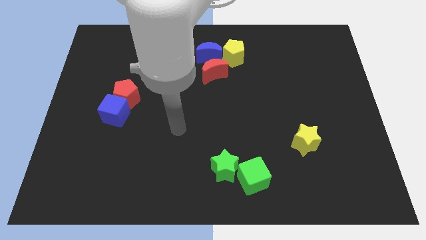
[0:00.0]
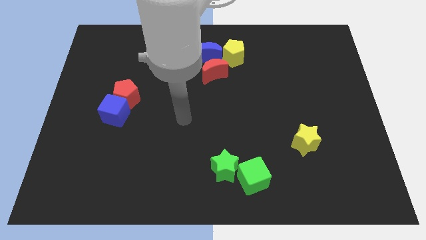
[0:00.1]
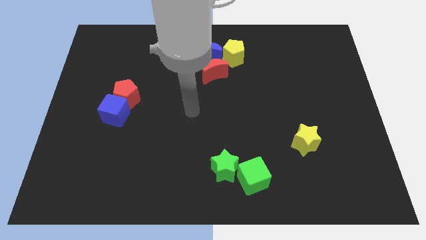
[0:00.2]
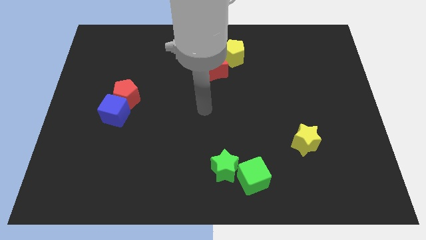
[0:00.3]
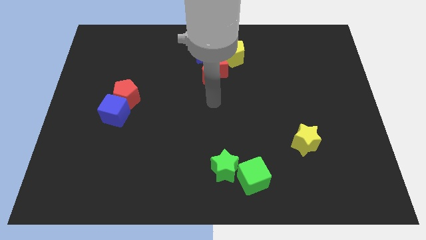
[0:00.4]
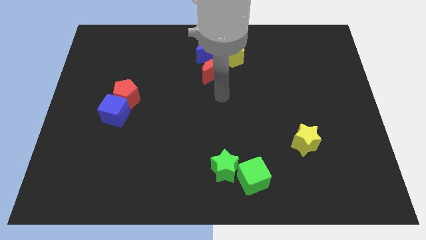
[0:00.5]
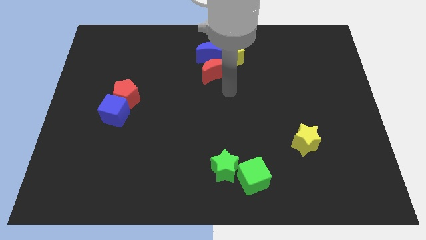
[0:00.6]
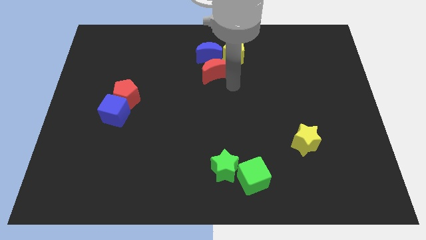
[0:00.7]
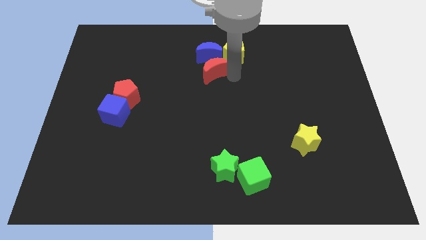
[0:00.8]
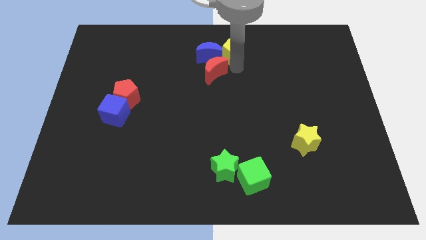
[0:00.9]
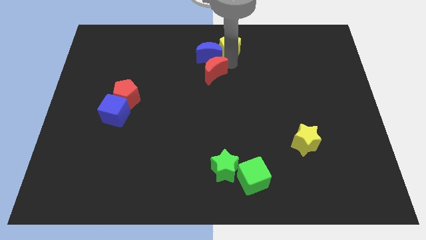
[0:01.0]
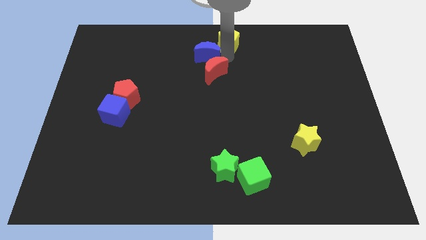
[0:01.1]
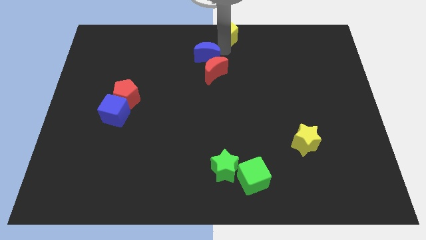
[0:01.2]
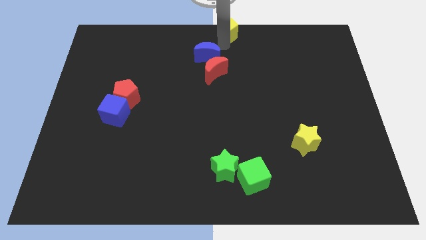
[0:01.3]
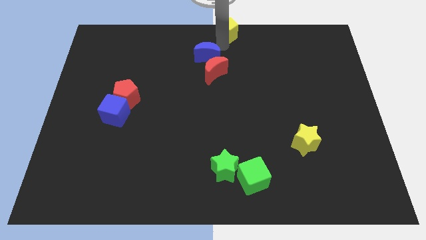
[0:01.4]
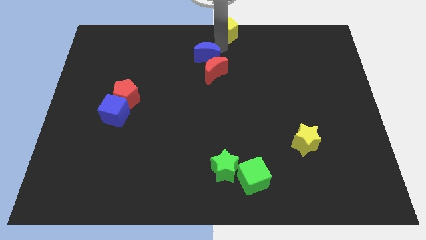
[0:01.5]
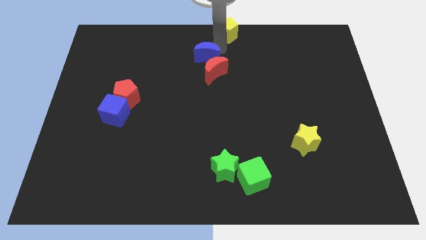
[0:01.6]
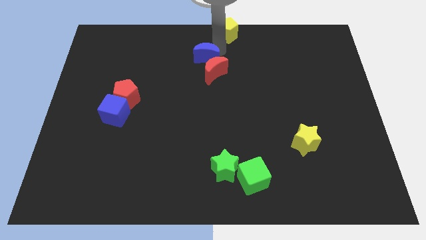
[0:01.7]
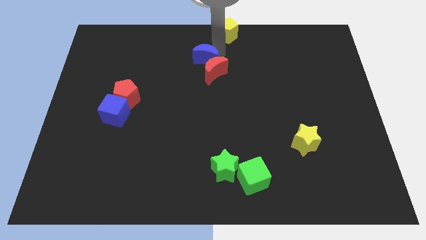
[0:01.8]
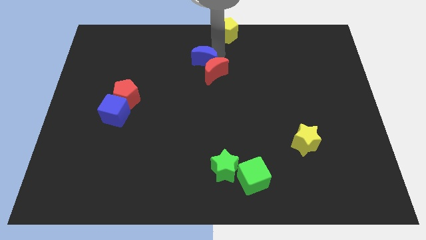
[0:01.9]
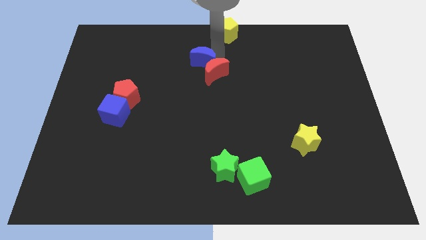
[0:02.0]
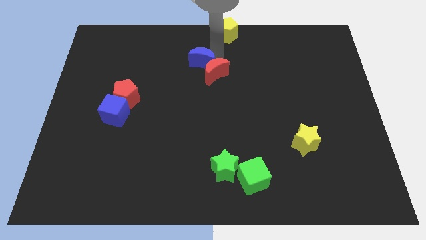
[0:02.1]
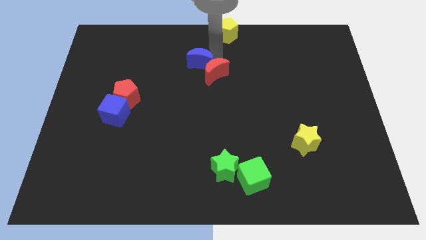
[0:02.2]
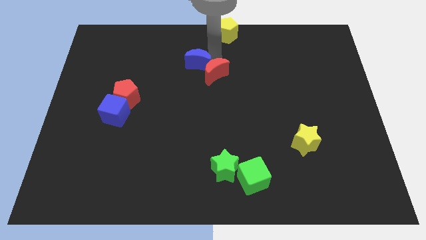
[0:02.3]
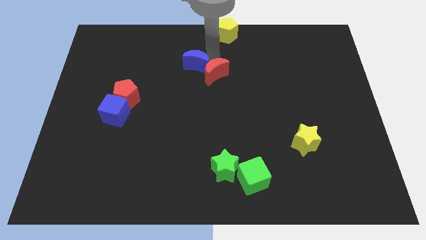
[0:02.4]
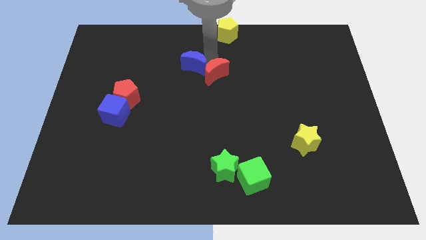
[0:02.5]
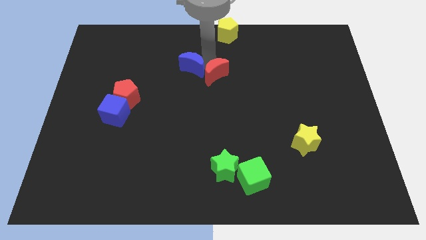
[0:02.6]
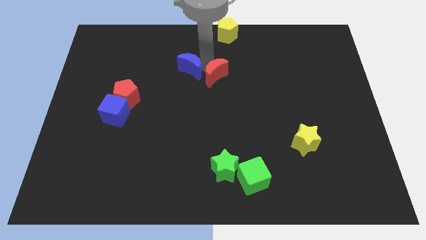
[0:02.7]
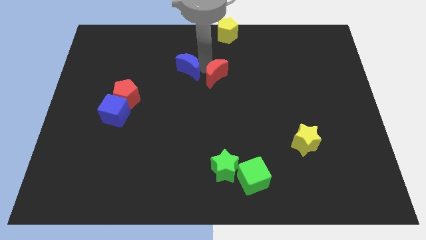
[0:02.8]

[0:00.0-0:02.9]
slightly push the blue moon downwards and to the left

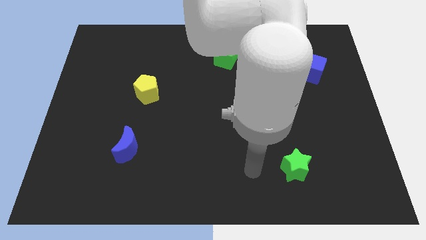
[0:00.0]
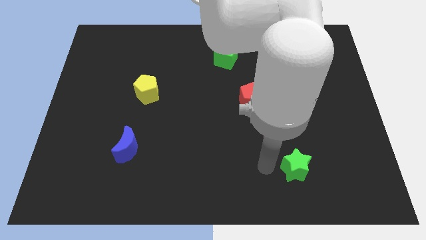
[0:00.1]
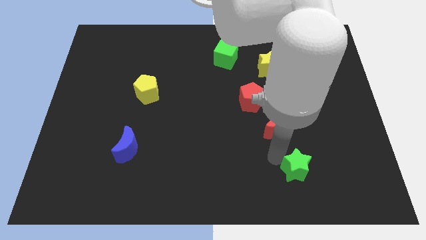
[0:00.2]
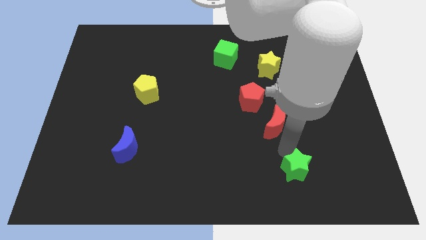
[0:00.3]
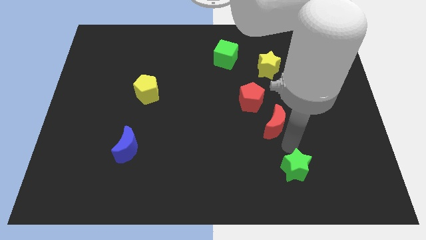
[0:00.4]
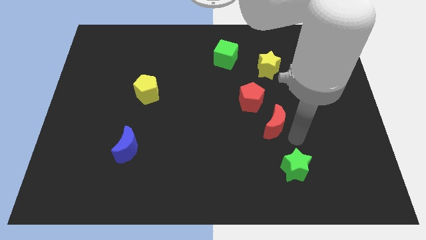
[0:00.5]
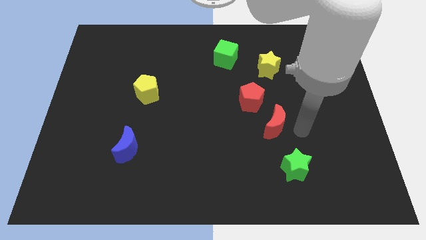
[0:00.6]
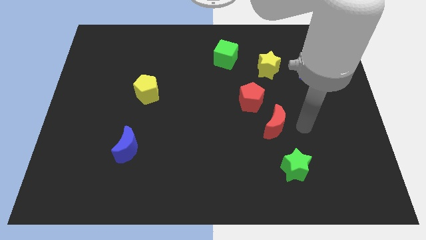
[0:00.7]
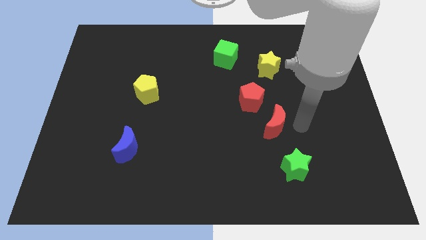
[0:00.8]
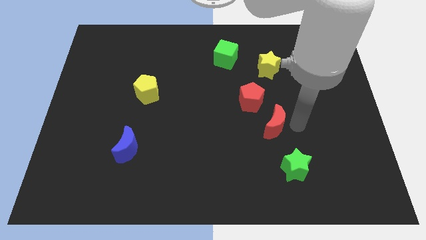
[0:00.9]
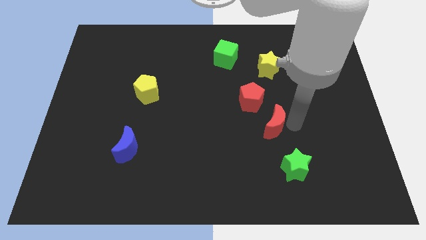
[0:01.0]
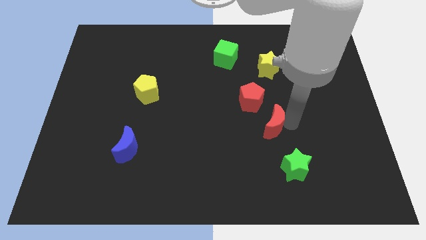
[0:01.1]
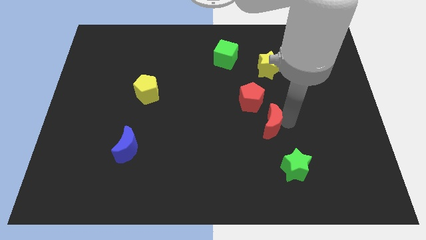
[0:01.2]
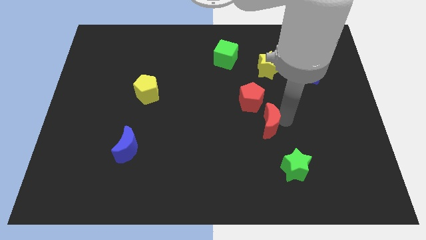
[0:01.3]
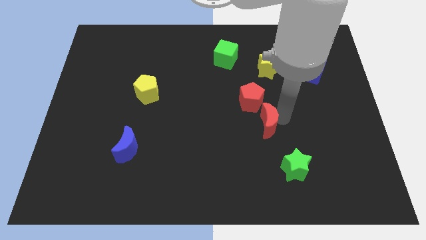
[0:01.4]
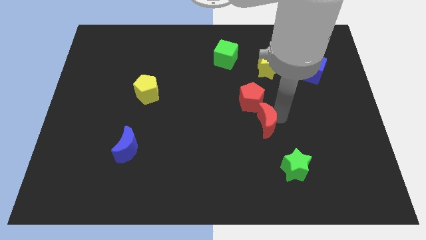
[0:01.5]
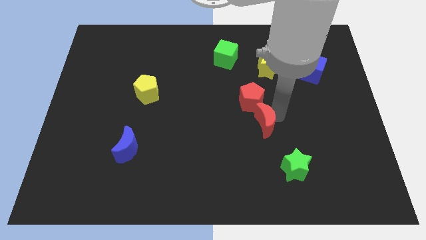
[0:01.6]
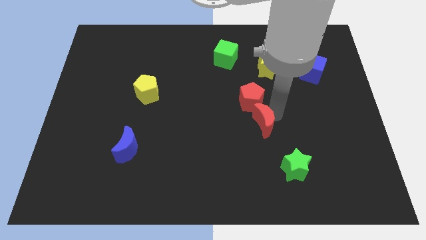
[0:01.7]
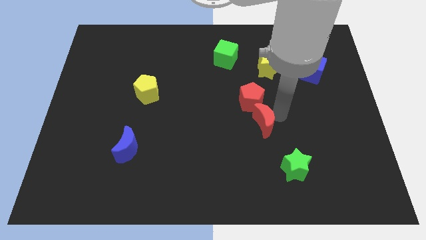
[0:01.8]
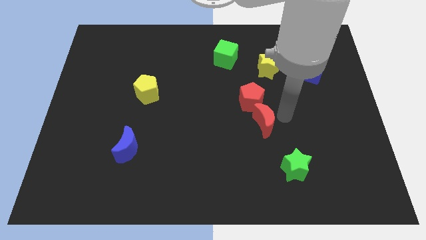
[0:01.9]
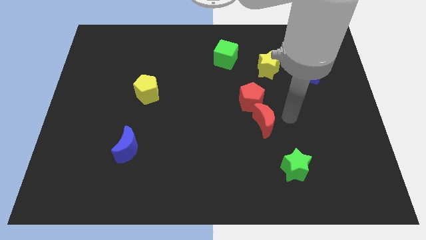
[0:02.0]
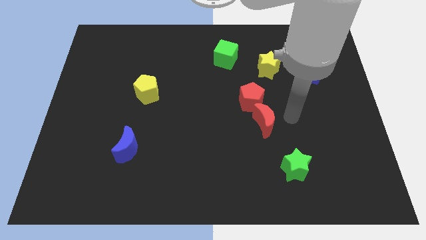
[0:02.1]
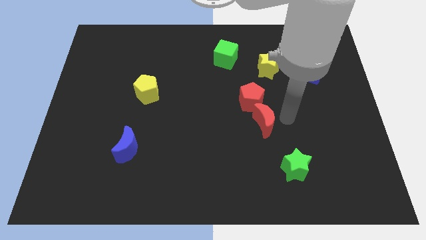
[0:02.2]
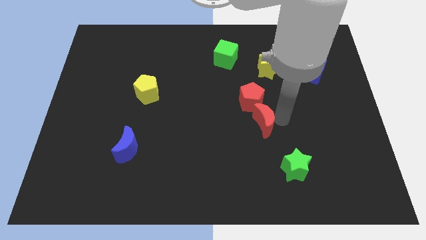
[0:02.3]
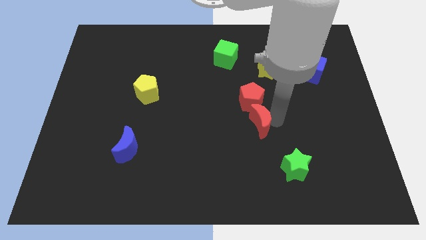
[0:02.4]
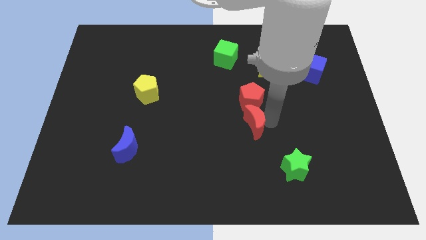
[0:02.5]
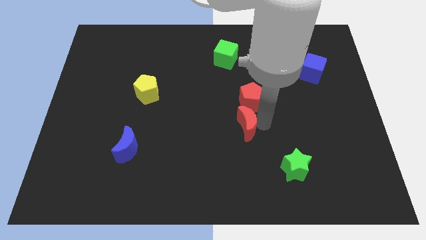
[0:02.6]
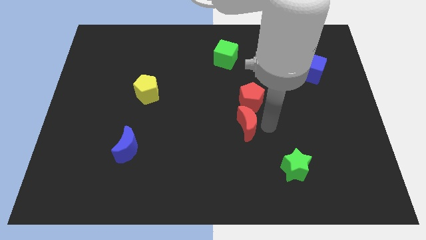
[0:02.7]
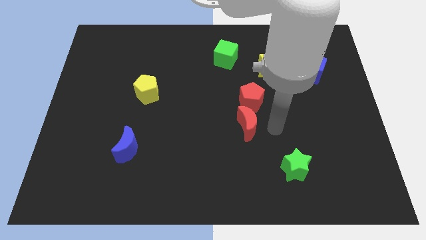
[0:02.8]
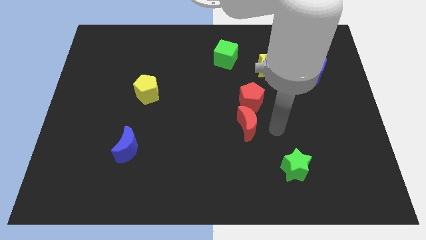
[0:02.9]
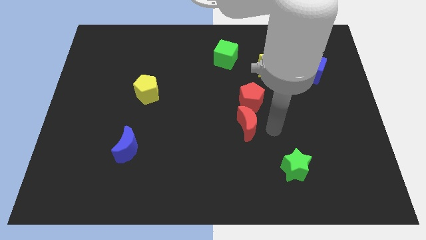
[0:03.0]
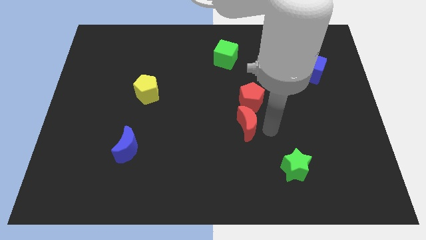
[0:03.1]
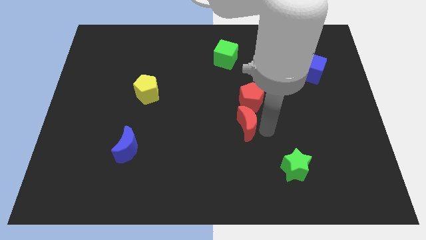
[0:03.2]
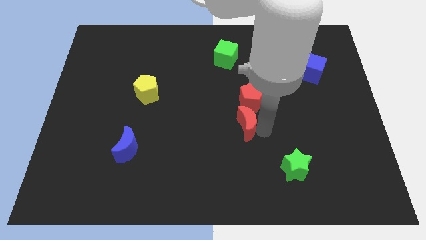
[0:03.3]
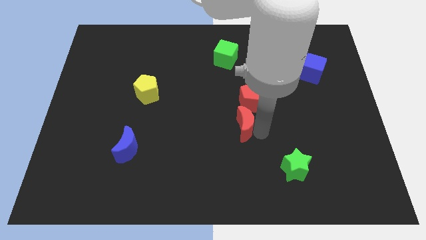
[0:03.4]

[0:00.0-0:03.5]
push the red moon to the left slightly

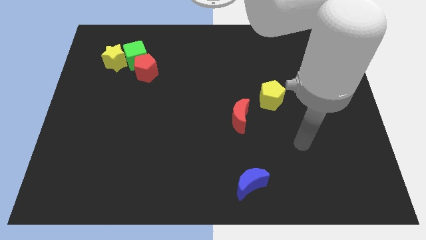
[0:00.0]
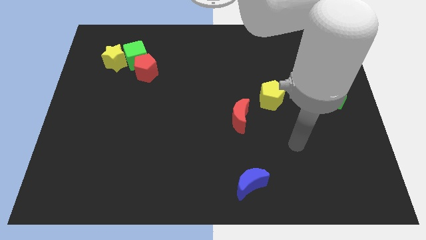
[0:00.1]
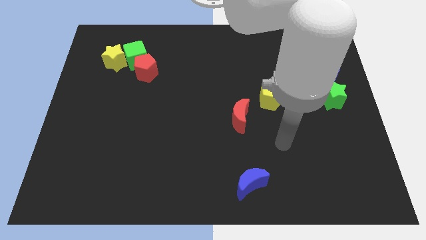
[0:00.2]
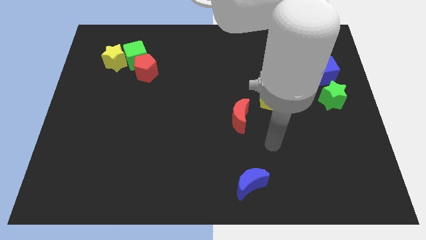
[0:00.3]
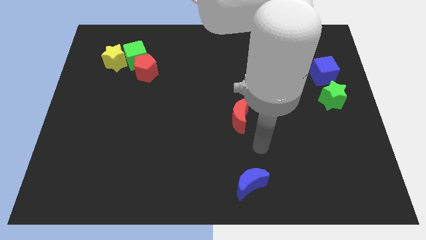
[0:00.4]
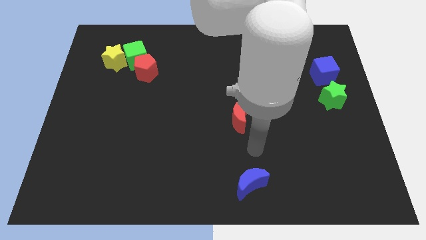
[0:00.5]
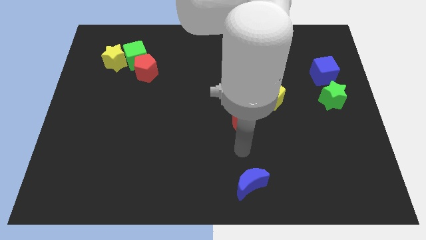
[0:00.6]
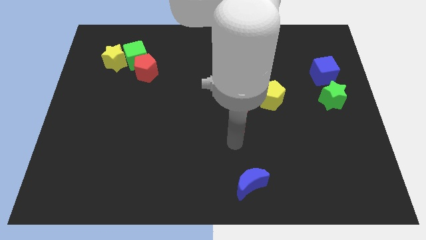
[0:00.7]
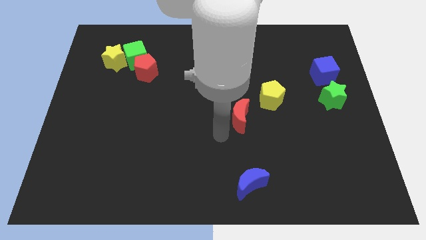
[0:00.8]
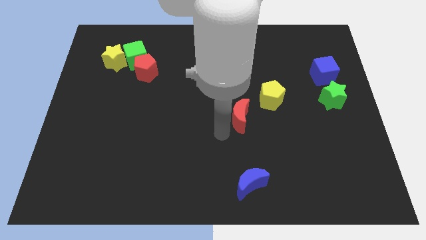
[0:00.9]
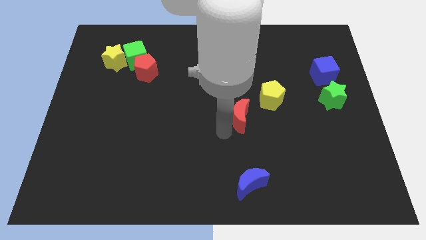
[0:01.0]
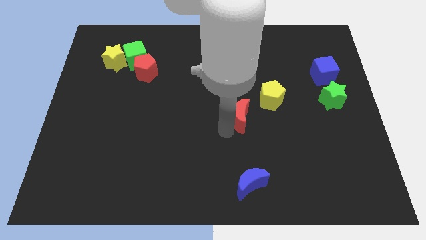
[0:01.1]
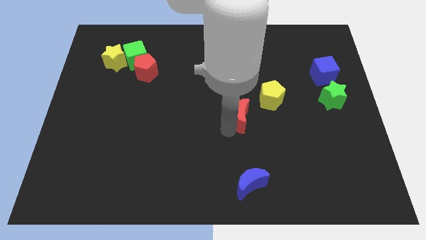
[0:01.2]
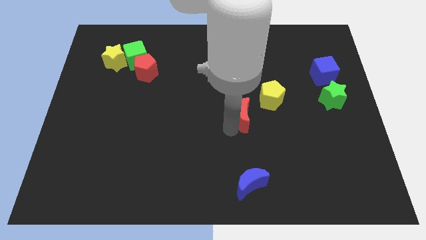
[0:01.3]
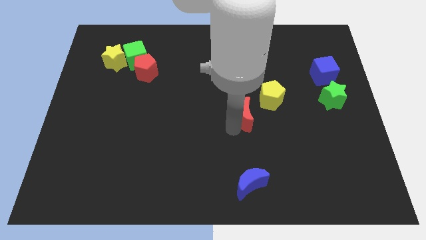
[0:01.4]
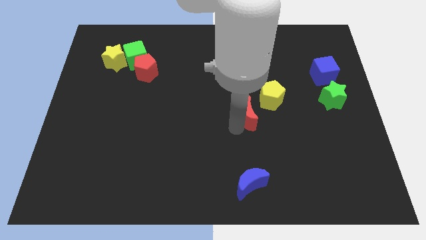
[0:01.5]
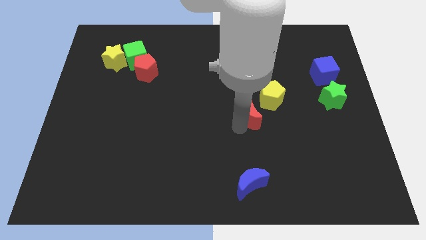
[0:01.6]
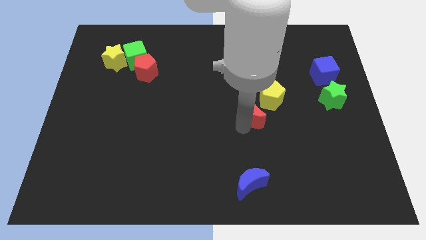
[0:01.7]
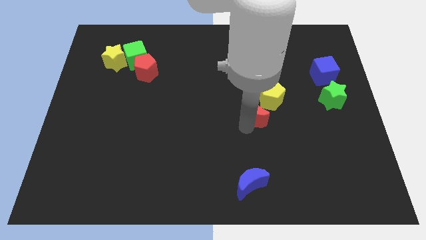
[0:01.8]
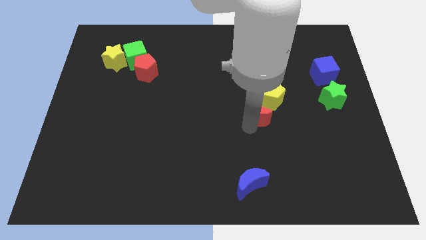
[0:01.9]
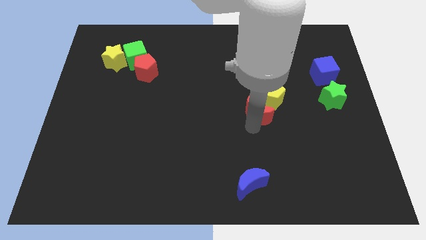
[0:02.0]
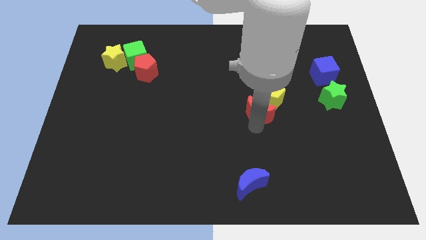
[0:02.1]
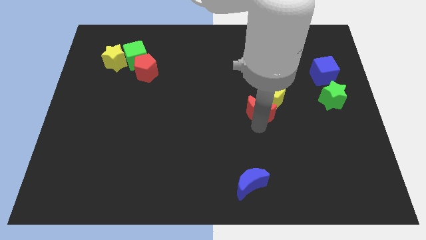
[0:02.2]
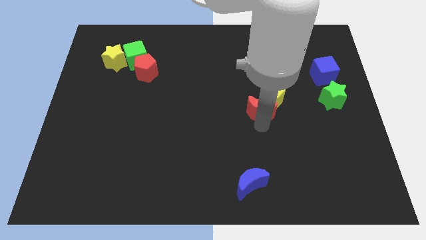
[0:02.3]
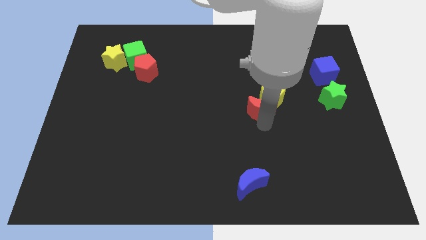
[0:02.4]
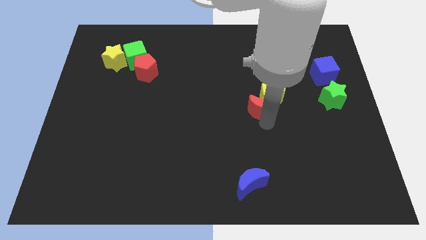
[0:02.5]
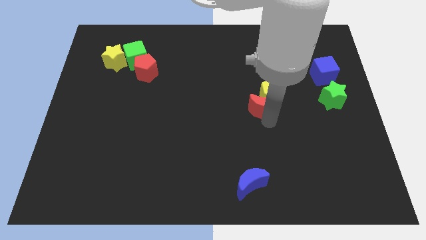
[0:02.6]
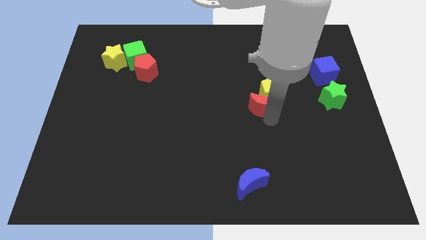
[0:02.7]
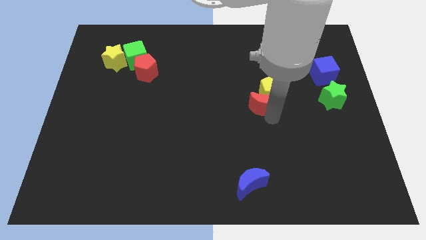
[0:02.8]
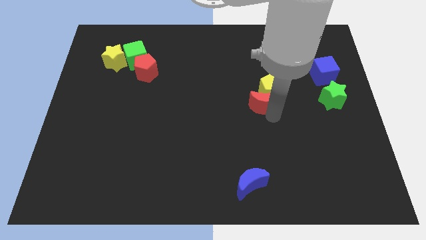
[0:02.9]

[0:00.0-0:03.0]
push the red moon somewhat upwards and right
